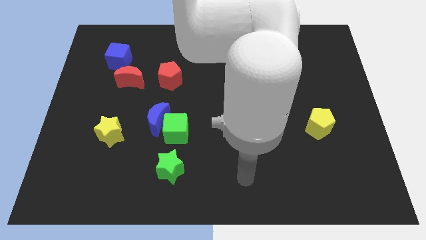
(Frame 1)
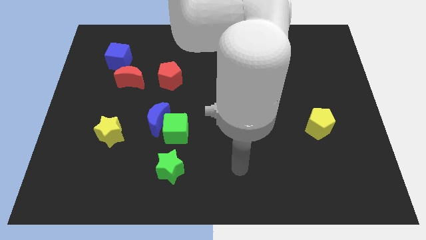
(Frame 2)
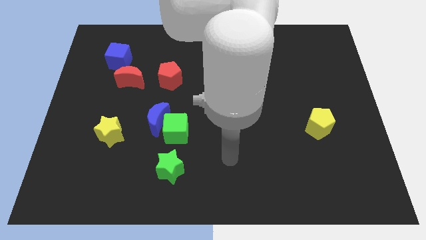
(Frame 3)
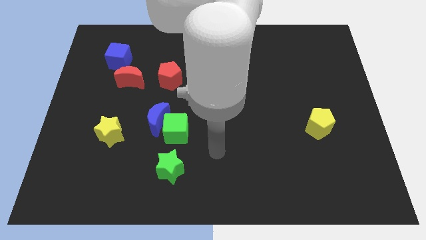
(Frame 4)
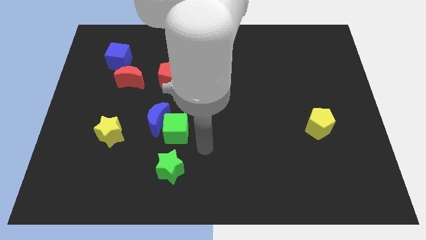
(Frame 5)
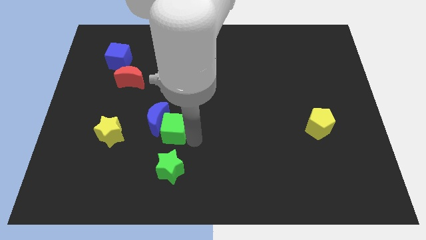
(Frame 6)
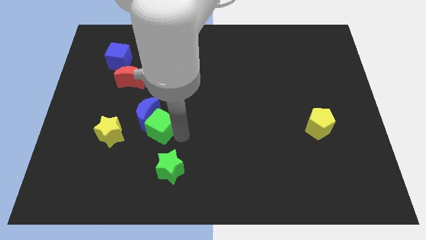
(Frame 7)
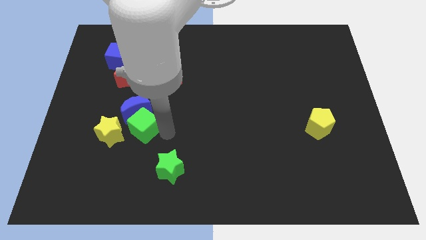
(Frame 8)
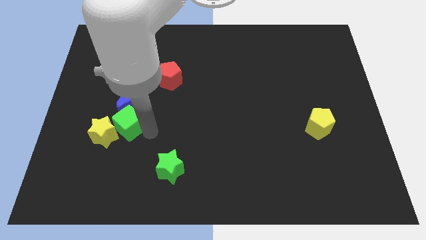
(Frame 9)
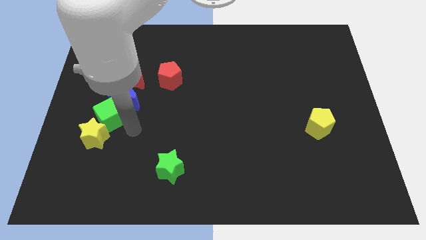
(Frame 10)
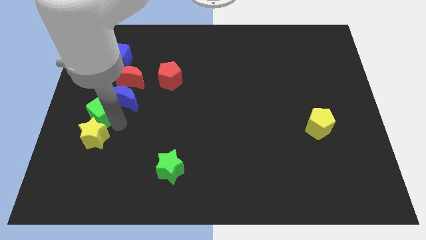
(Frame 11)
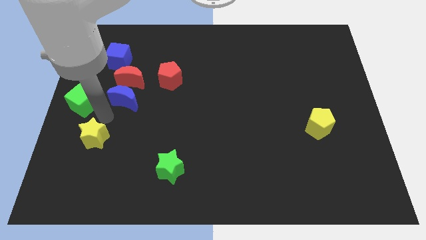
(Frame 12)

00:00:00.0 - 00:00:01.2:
separate the blue moon from the green cube

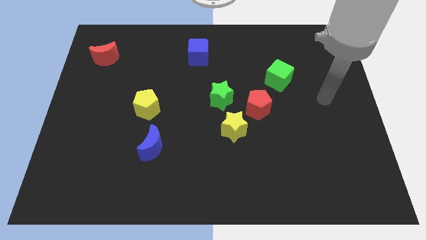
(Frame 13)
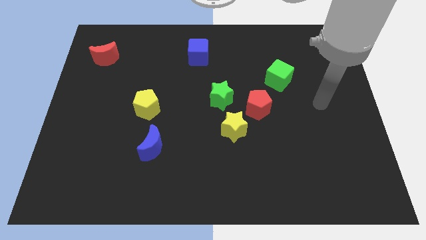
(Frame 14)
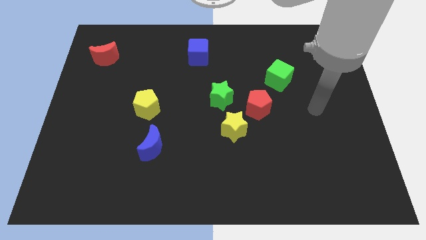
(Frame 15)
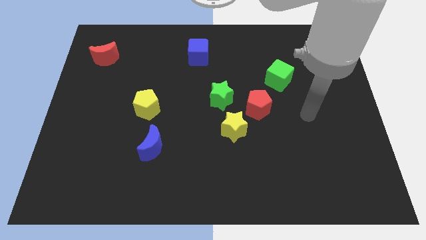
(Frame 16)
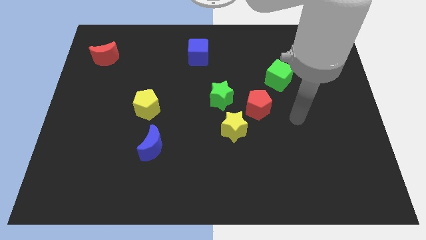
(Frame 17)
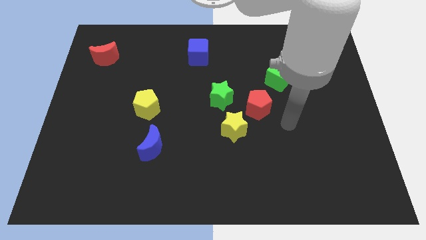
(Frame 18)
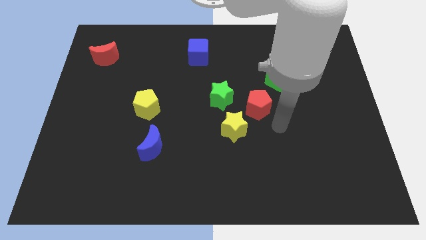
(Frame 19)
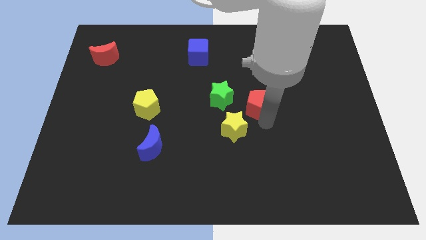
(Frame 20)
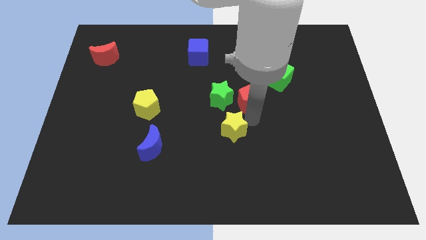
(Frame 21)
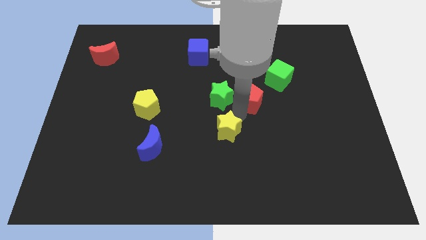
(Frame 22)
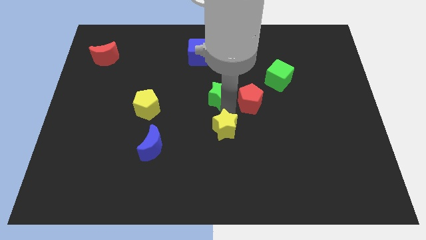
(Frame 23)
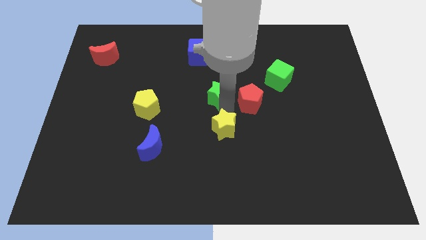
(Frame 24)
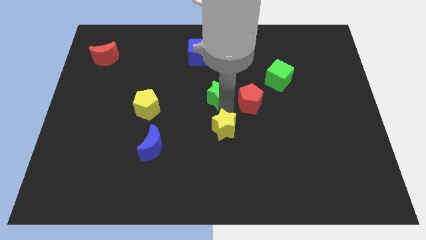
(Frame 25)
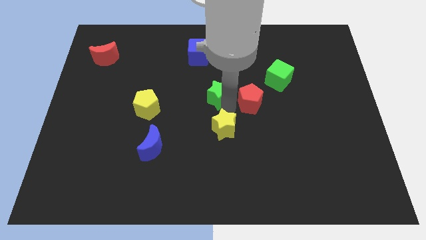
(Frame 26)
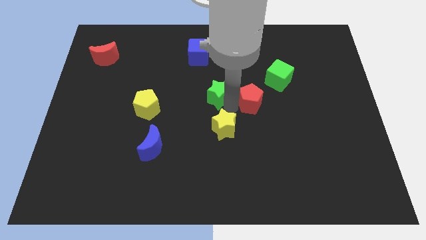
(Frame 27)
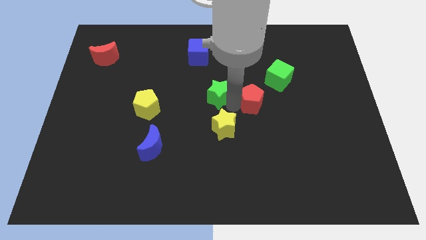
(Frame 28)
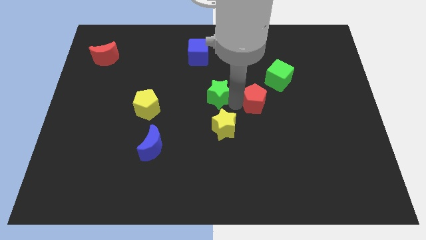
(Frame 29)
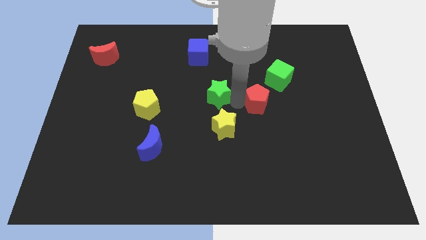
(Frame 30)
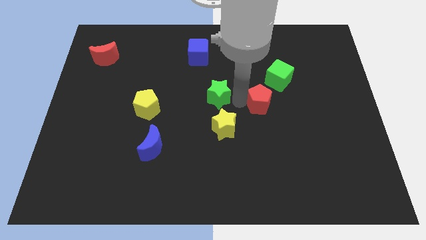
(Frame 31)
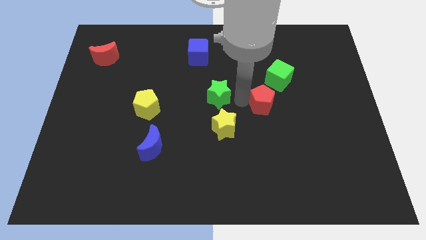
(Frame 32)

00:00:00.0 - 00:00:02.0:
move the red pentagon away from the yellow star and green star

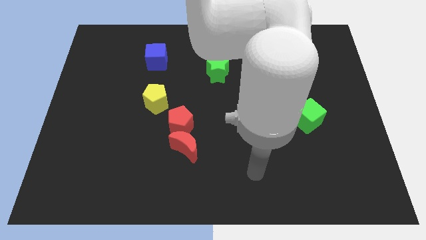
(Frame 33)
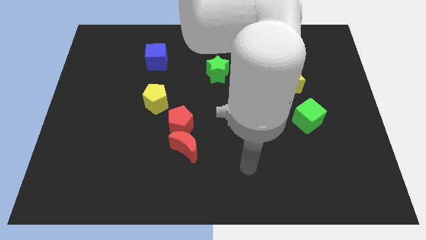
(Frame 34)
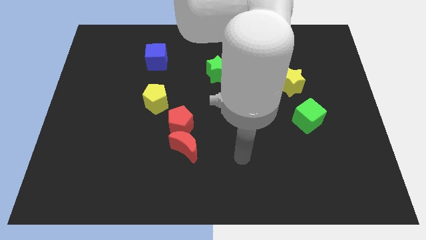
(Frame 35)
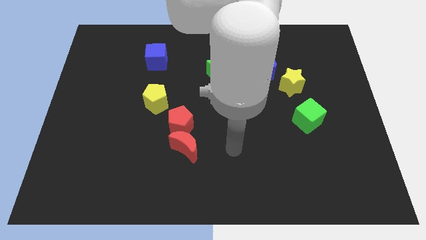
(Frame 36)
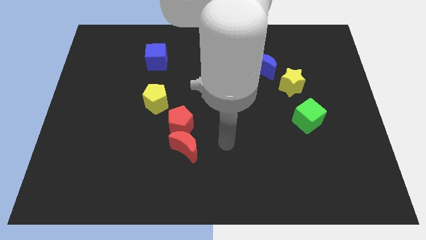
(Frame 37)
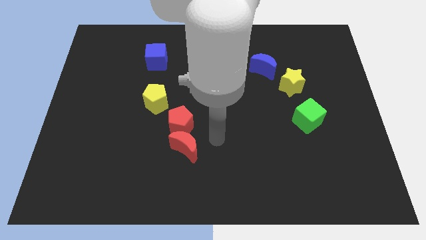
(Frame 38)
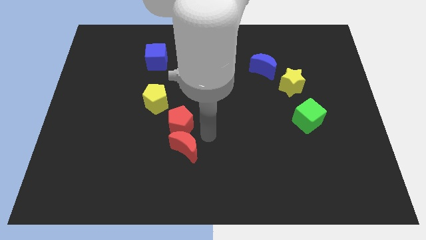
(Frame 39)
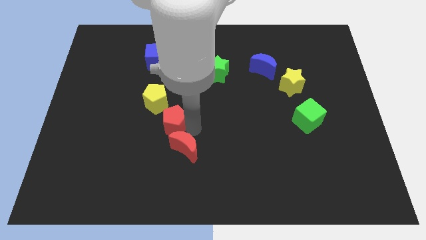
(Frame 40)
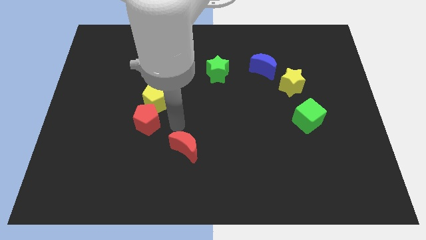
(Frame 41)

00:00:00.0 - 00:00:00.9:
separate the red moon from the red pentagon

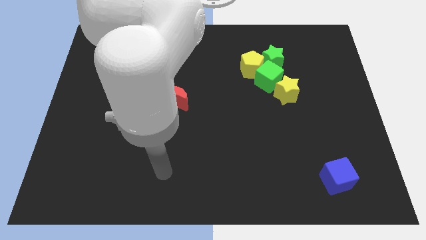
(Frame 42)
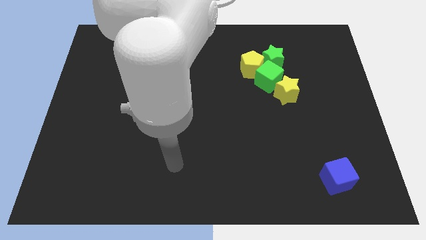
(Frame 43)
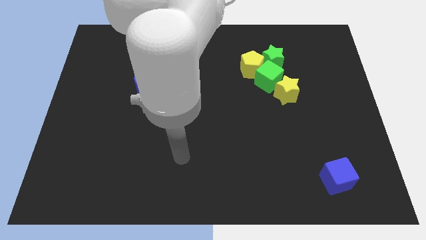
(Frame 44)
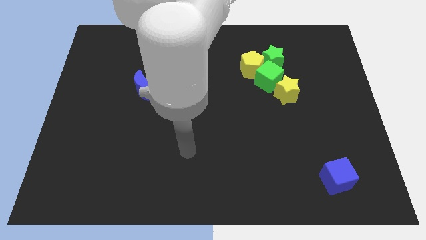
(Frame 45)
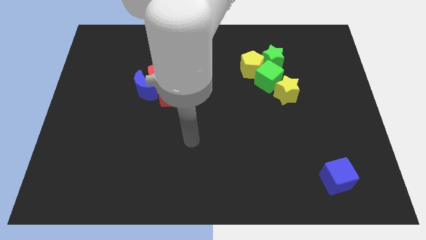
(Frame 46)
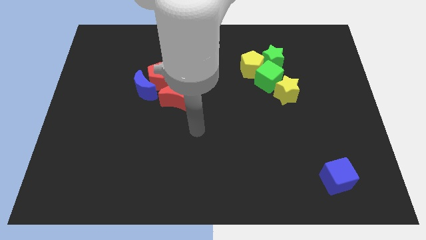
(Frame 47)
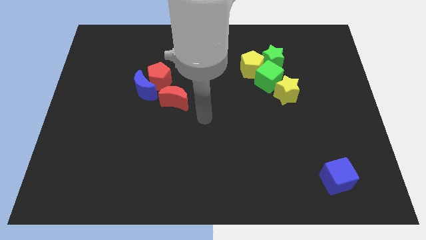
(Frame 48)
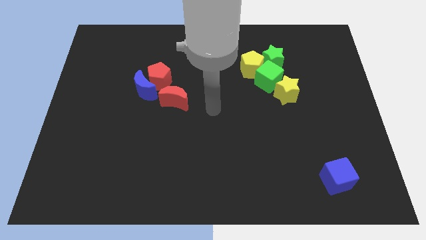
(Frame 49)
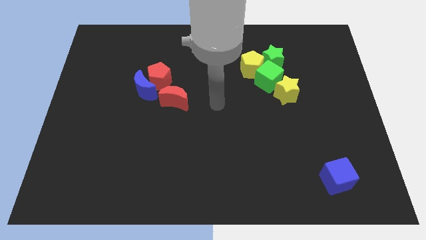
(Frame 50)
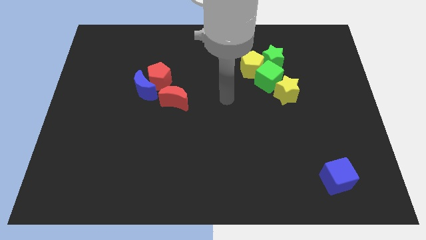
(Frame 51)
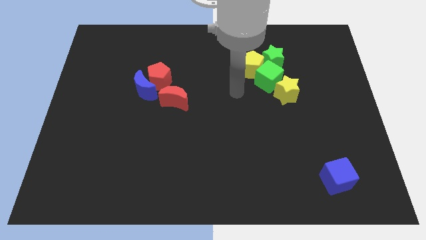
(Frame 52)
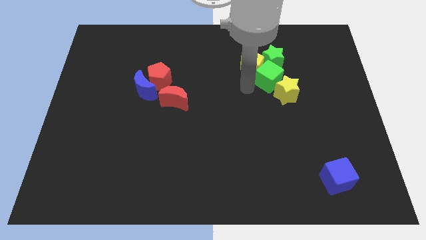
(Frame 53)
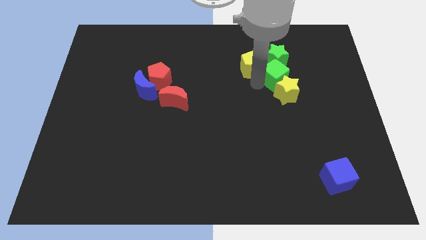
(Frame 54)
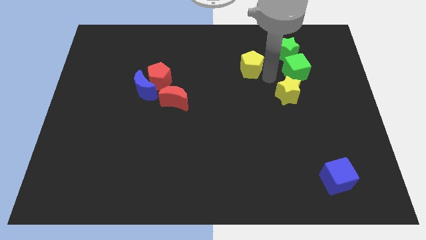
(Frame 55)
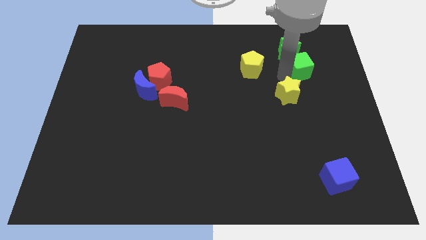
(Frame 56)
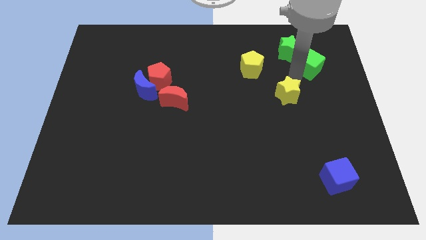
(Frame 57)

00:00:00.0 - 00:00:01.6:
separate the yellow star from the green cube

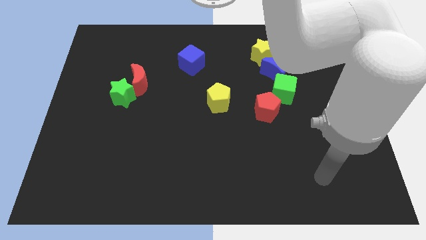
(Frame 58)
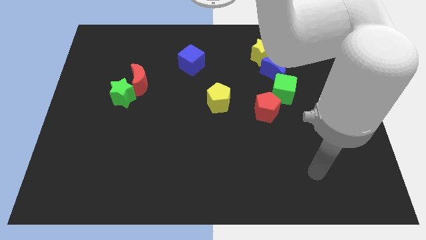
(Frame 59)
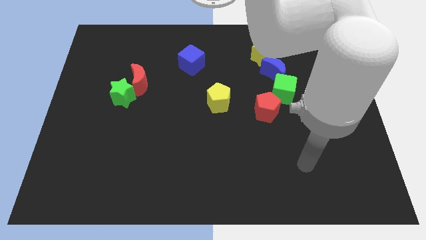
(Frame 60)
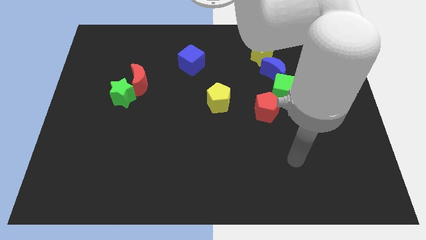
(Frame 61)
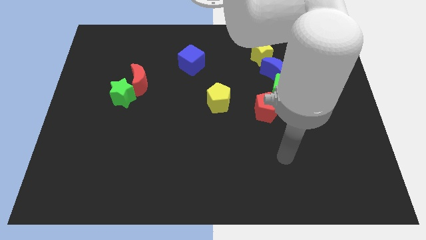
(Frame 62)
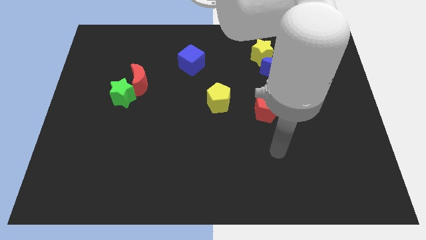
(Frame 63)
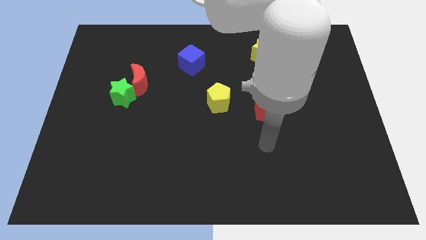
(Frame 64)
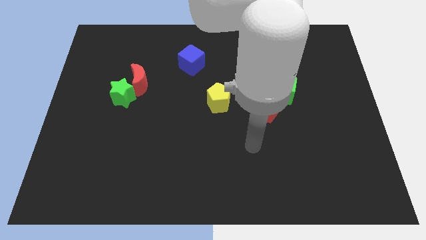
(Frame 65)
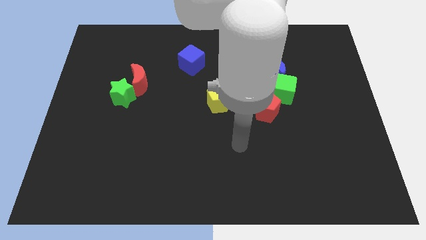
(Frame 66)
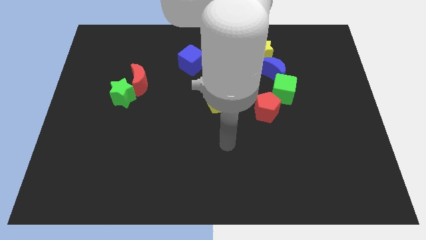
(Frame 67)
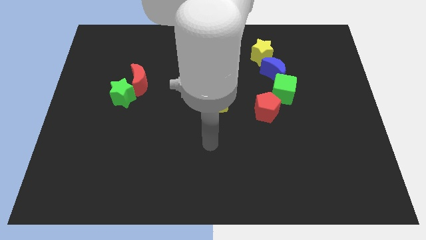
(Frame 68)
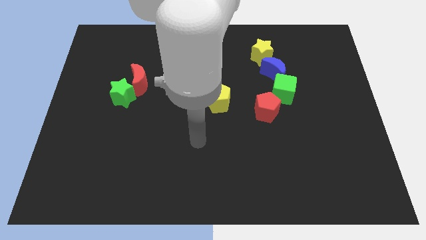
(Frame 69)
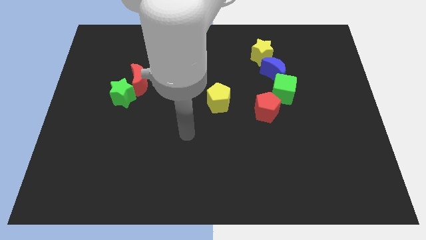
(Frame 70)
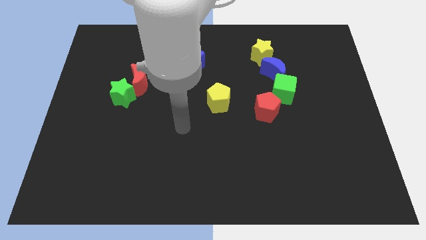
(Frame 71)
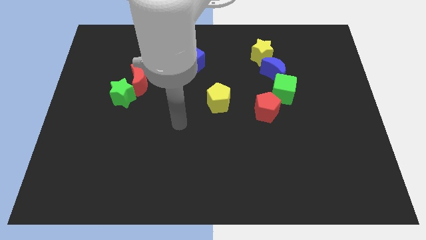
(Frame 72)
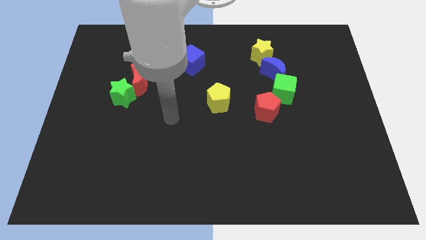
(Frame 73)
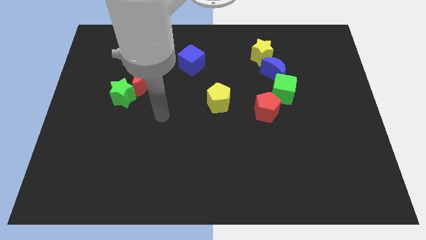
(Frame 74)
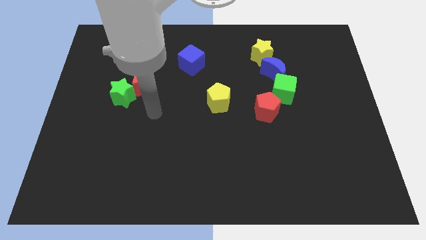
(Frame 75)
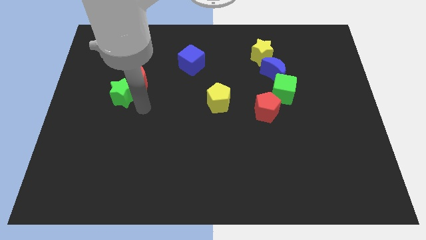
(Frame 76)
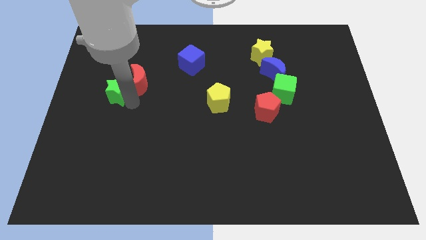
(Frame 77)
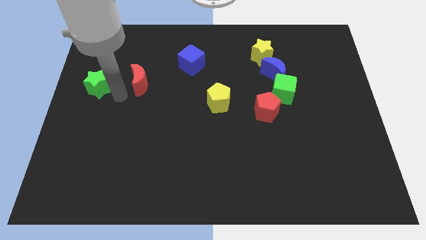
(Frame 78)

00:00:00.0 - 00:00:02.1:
separate the red moon from the green star

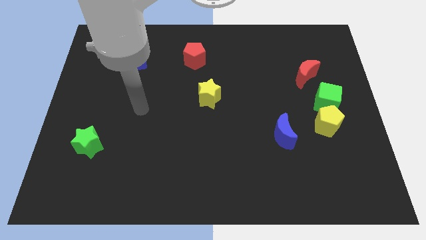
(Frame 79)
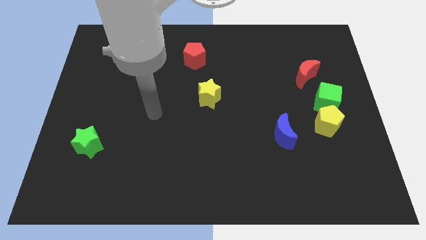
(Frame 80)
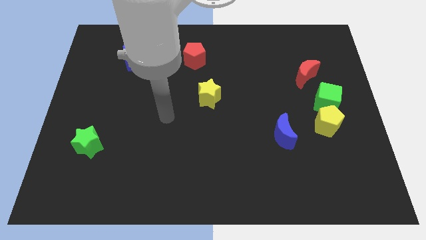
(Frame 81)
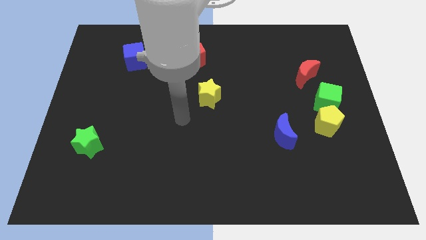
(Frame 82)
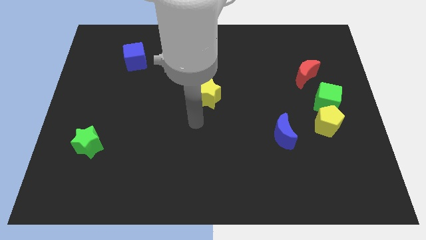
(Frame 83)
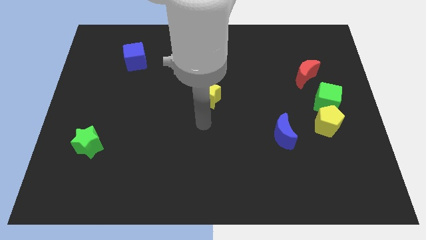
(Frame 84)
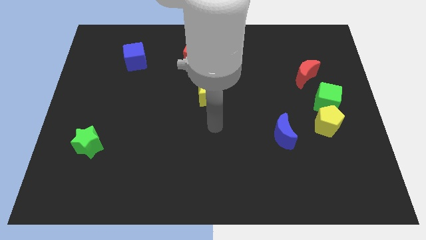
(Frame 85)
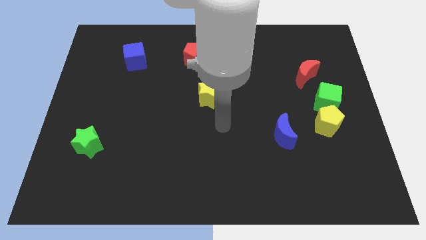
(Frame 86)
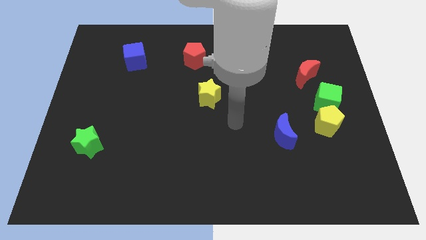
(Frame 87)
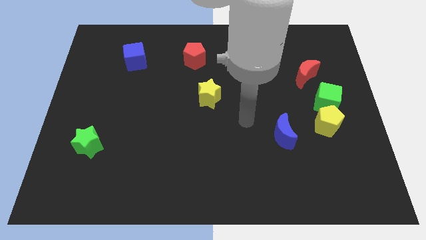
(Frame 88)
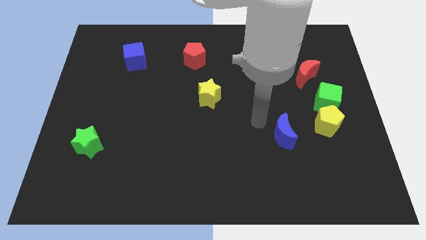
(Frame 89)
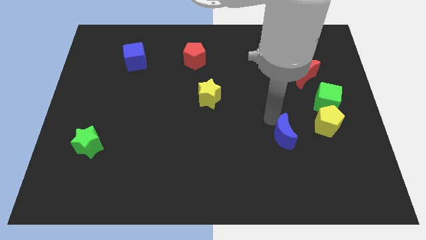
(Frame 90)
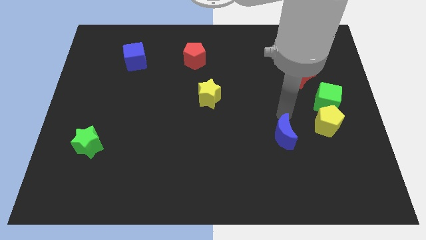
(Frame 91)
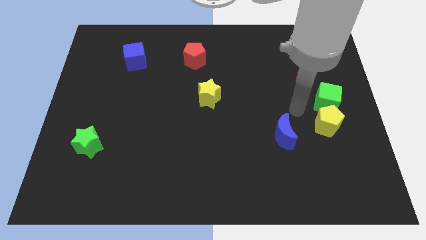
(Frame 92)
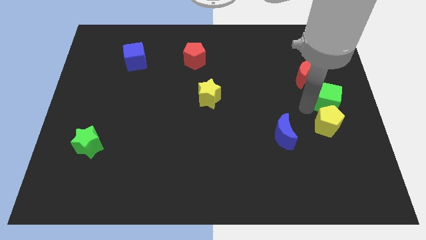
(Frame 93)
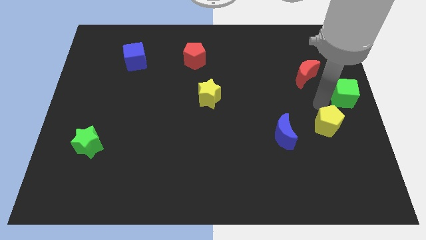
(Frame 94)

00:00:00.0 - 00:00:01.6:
move the yellow pentagon away from the green cube
